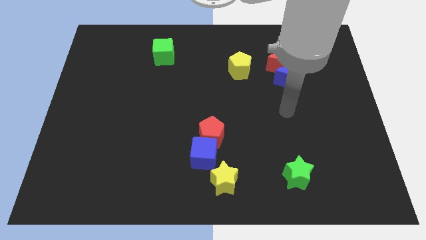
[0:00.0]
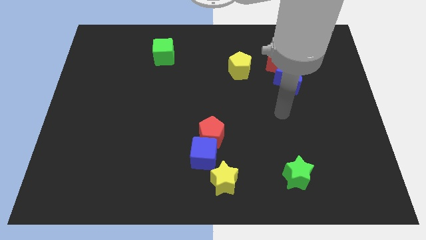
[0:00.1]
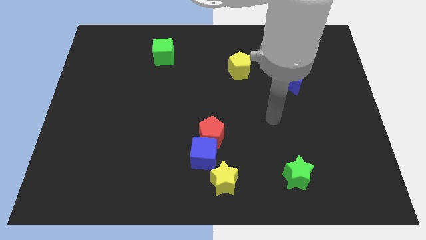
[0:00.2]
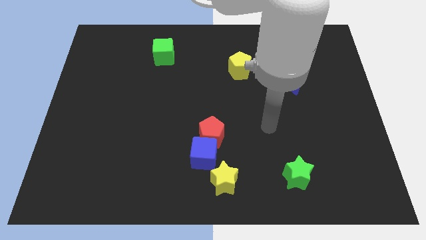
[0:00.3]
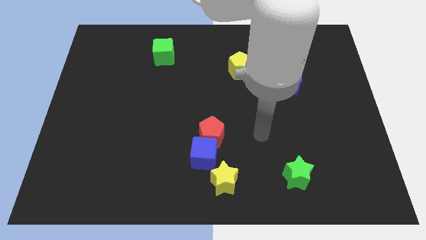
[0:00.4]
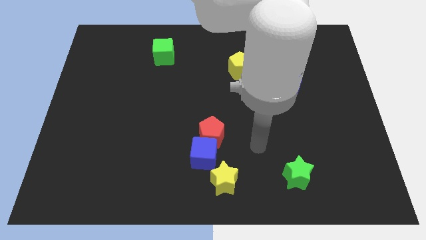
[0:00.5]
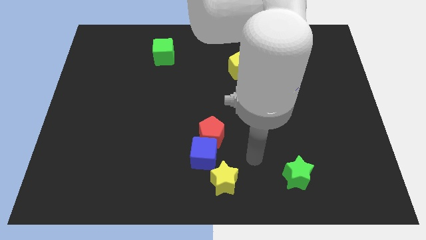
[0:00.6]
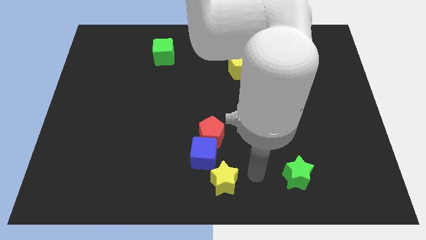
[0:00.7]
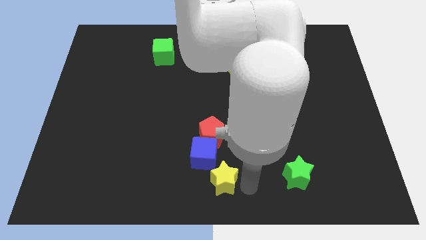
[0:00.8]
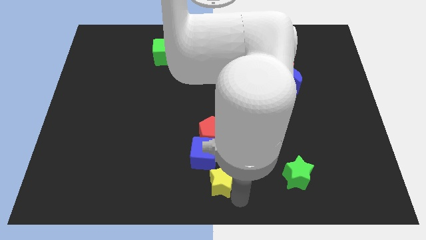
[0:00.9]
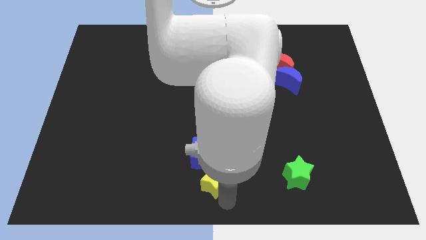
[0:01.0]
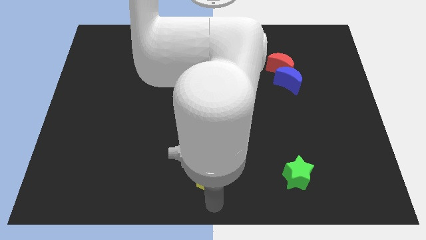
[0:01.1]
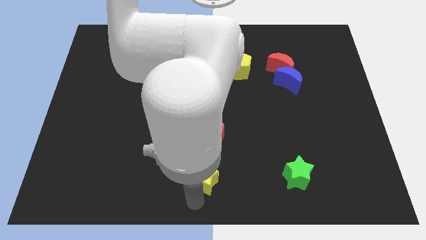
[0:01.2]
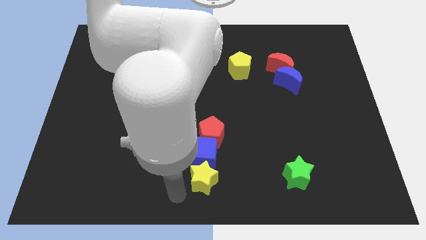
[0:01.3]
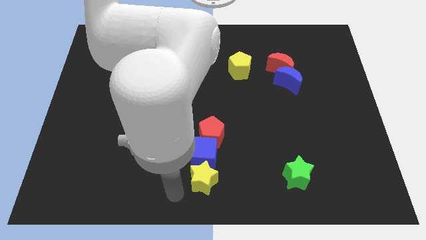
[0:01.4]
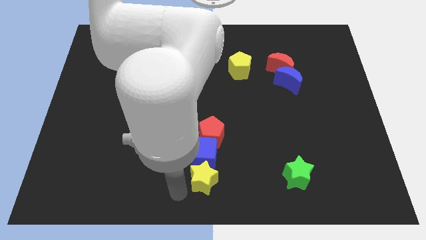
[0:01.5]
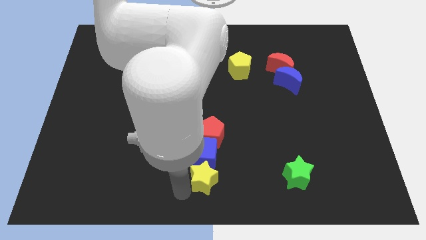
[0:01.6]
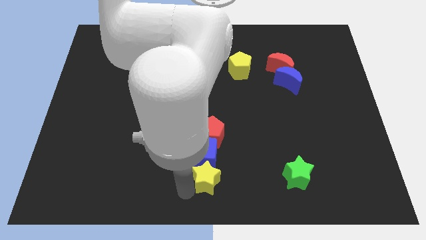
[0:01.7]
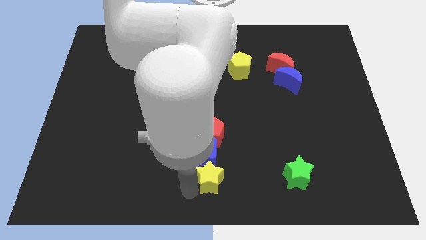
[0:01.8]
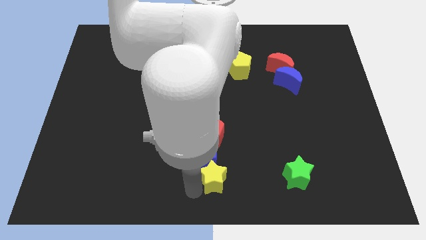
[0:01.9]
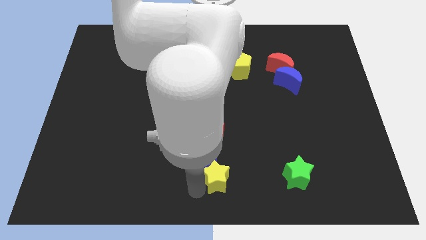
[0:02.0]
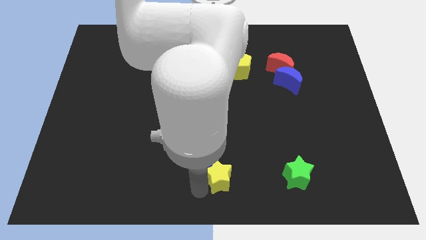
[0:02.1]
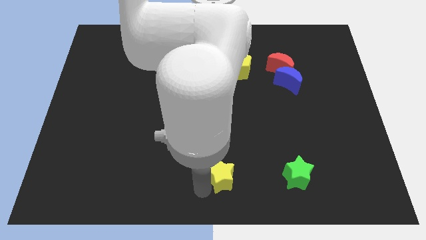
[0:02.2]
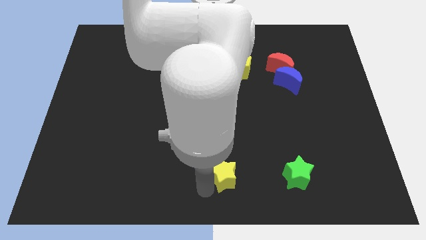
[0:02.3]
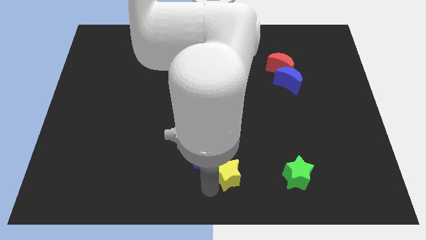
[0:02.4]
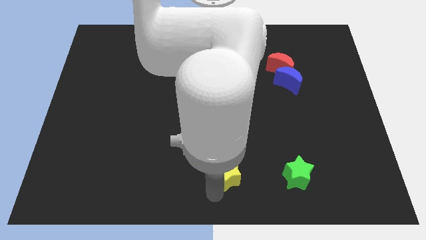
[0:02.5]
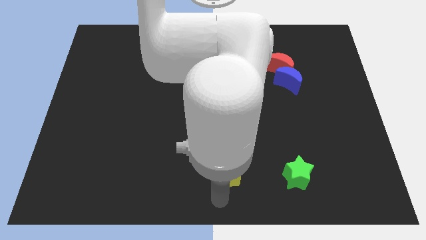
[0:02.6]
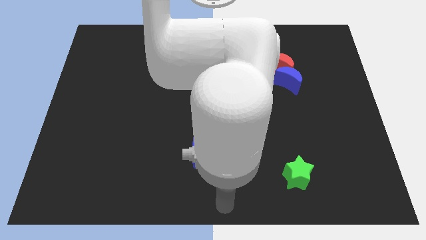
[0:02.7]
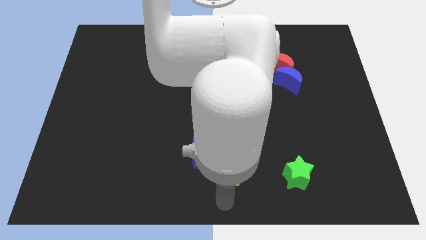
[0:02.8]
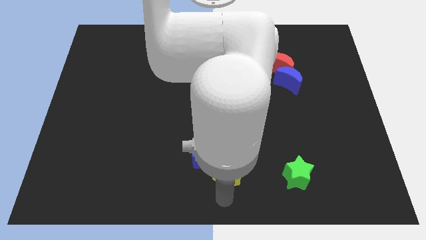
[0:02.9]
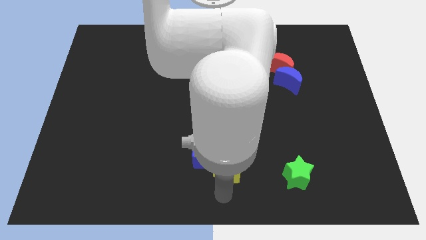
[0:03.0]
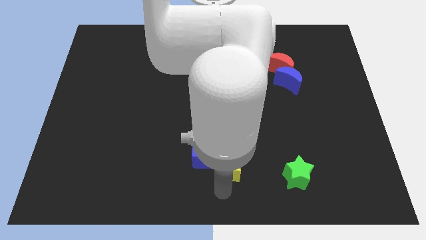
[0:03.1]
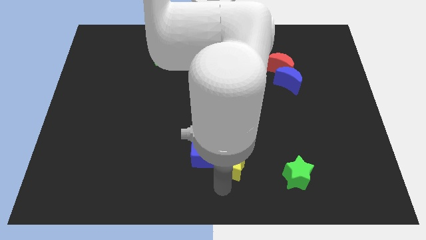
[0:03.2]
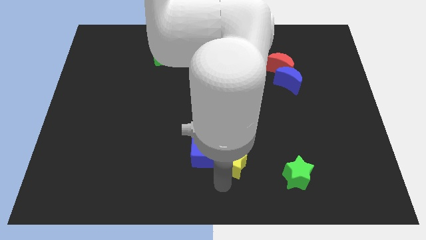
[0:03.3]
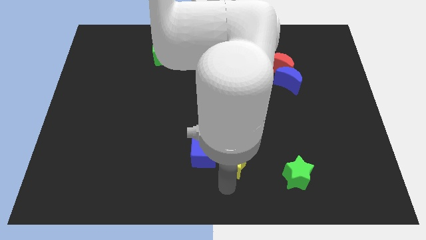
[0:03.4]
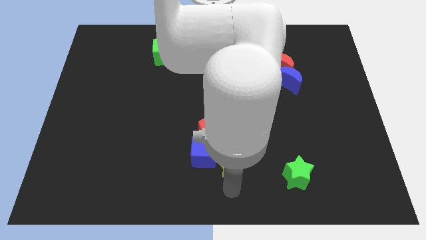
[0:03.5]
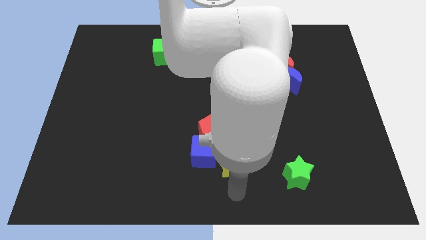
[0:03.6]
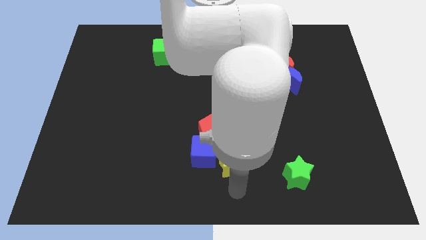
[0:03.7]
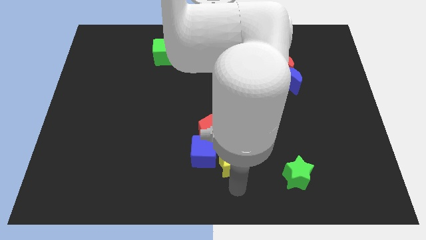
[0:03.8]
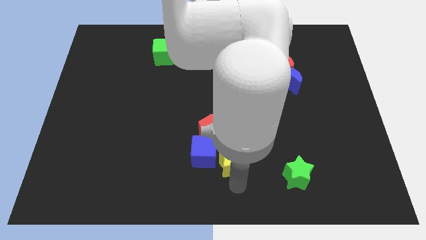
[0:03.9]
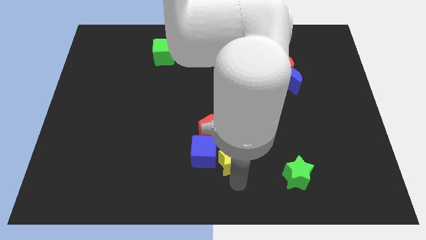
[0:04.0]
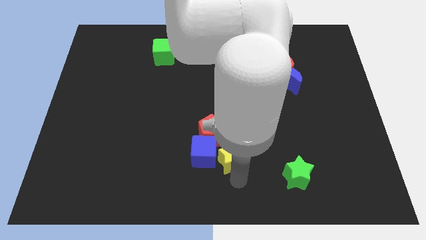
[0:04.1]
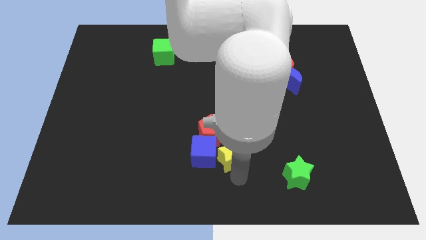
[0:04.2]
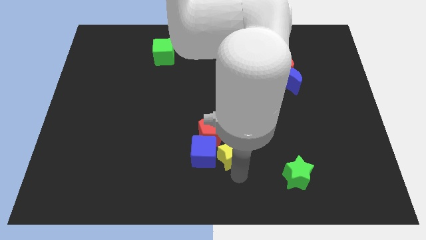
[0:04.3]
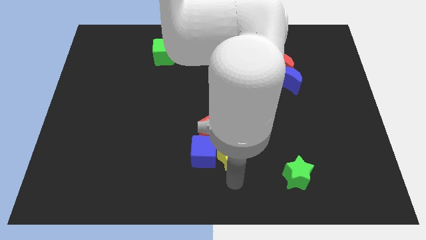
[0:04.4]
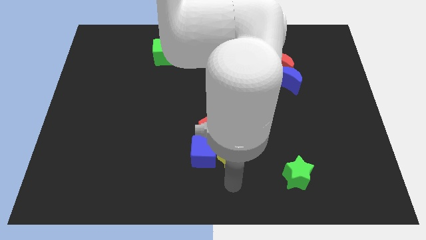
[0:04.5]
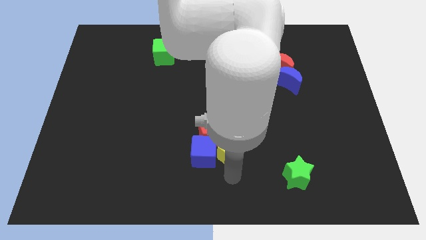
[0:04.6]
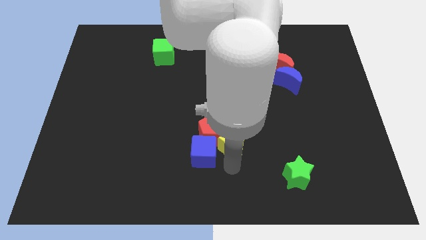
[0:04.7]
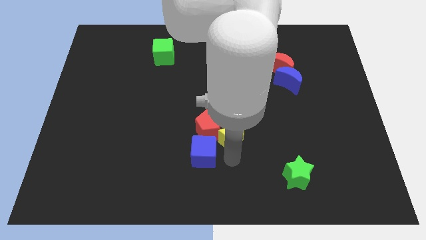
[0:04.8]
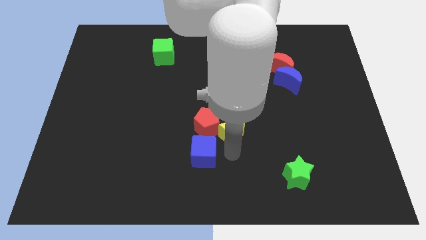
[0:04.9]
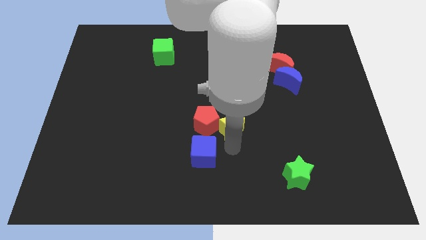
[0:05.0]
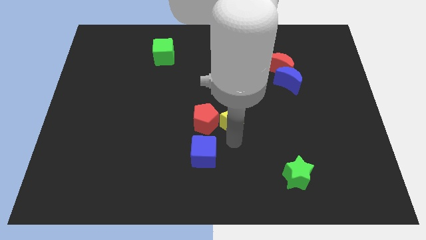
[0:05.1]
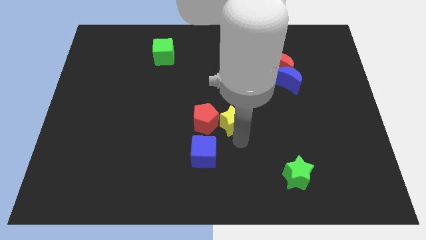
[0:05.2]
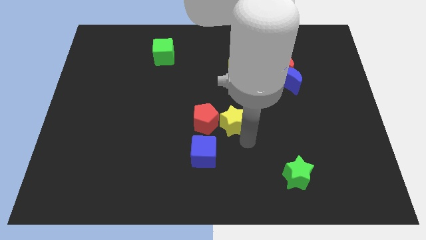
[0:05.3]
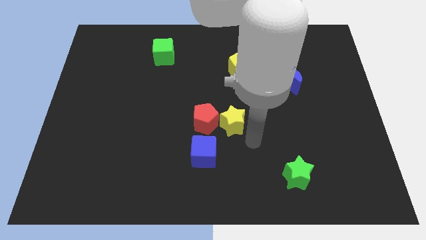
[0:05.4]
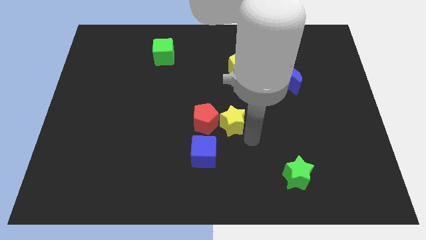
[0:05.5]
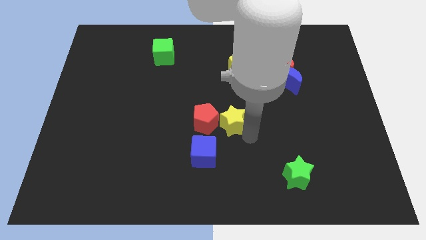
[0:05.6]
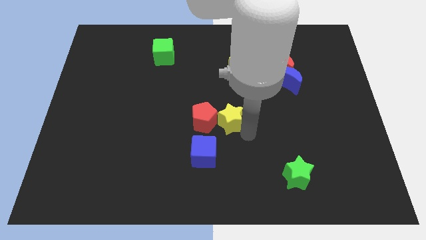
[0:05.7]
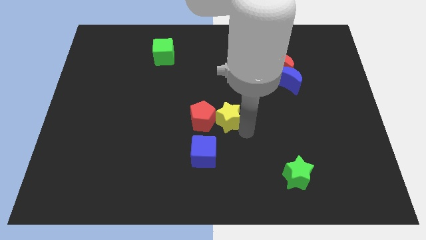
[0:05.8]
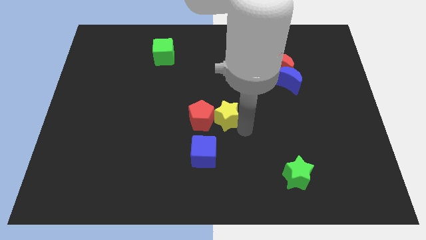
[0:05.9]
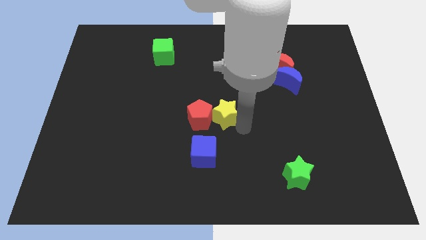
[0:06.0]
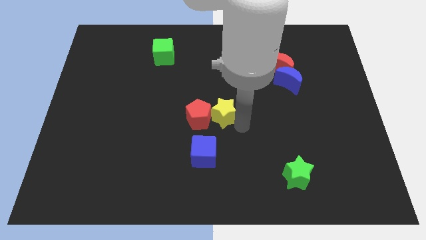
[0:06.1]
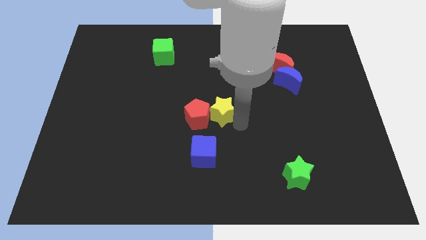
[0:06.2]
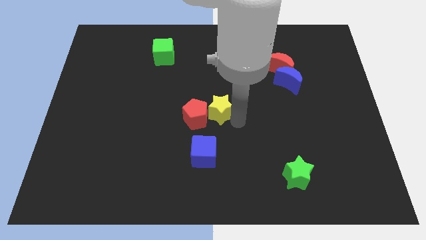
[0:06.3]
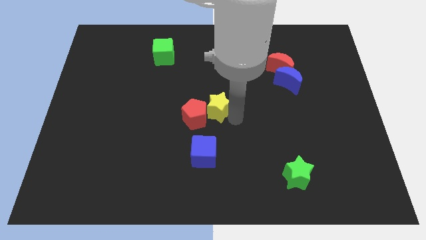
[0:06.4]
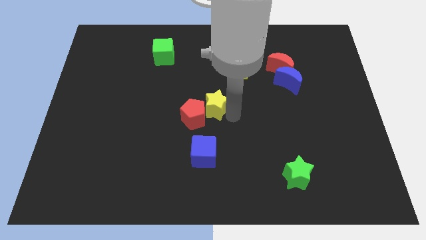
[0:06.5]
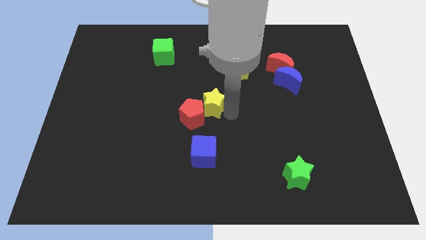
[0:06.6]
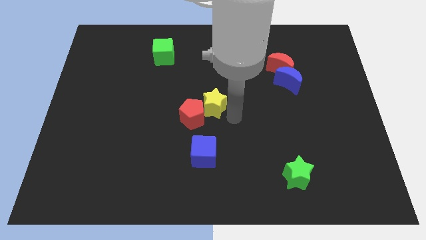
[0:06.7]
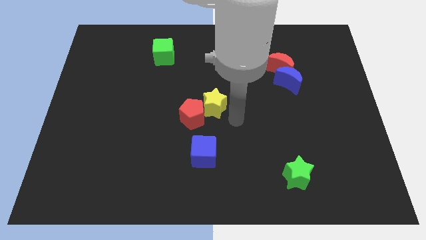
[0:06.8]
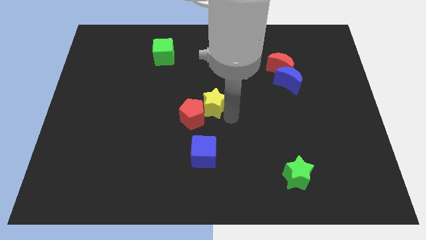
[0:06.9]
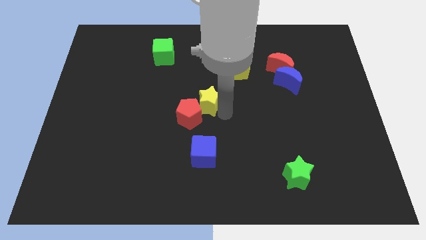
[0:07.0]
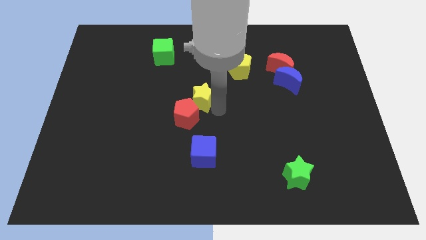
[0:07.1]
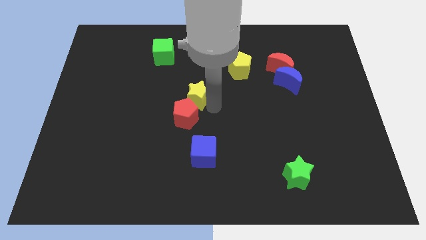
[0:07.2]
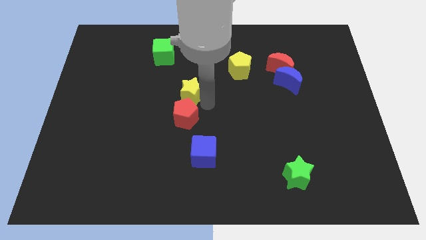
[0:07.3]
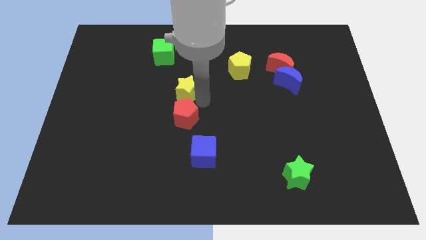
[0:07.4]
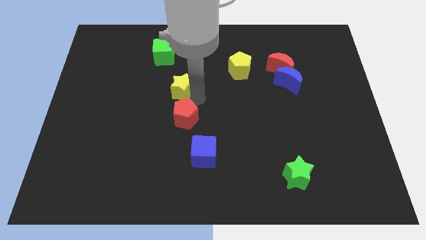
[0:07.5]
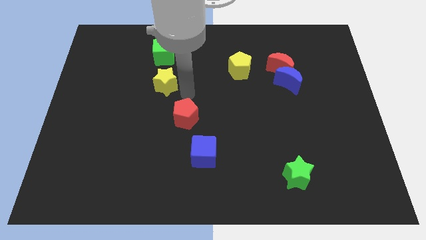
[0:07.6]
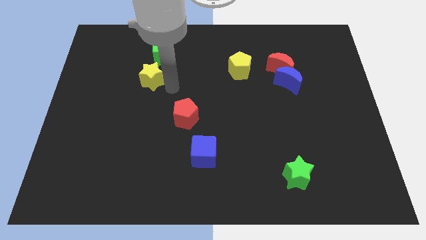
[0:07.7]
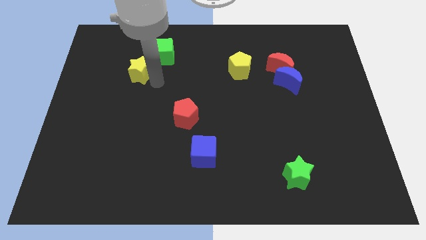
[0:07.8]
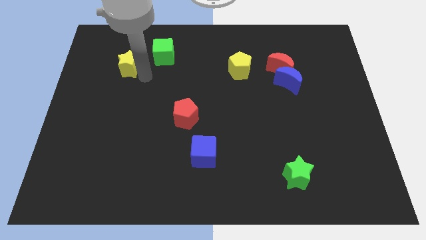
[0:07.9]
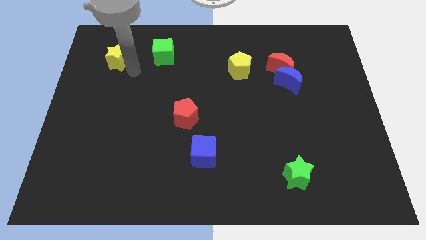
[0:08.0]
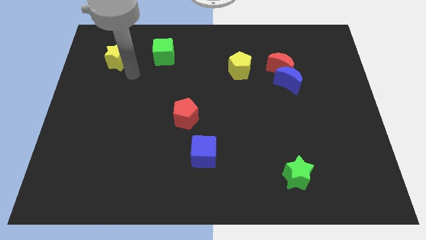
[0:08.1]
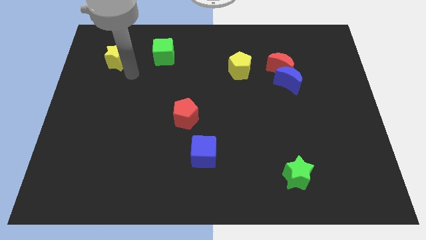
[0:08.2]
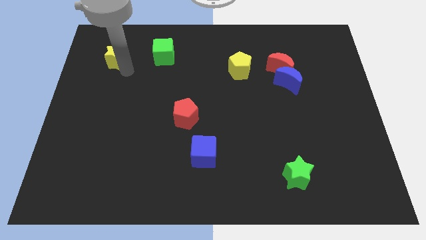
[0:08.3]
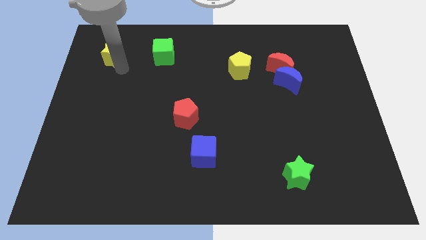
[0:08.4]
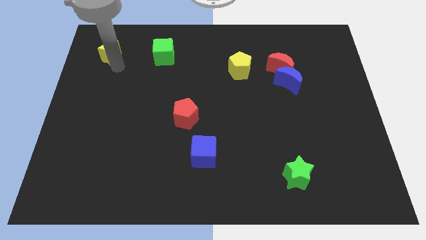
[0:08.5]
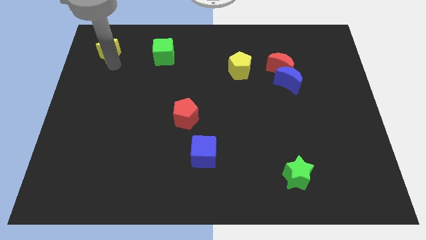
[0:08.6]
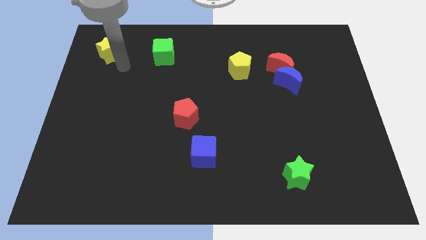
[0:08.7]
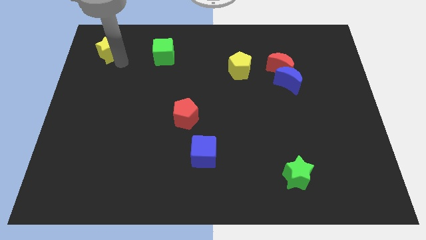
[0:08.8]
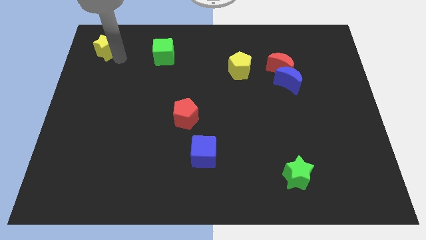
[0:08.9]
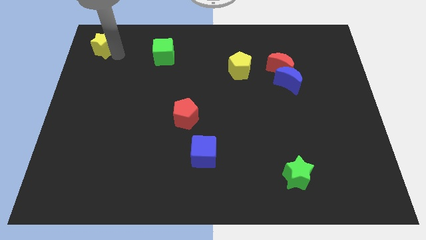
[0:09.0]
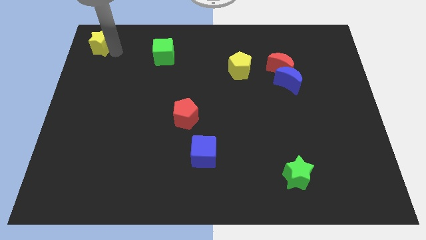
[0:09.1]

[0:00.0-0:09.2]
move the yellow star to the top left of the board
